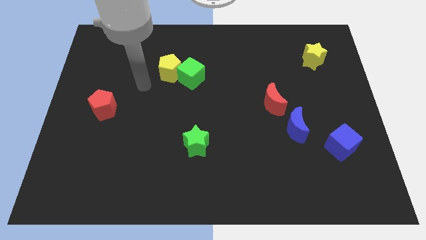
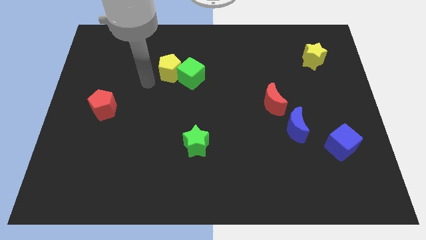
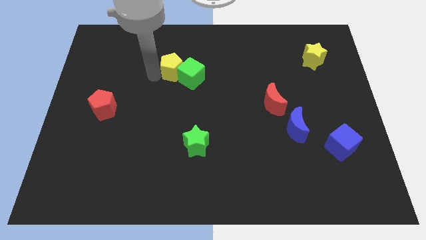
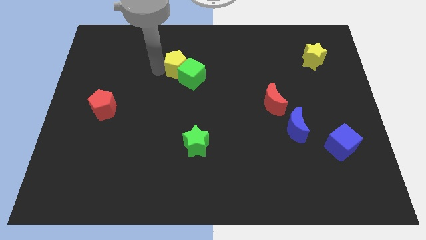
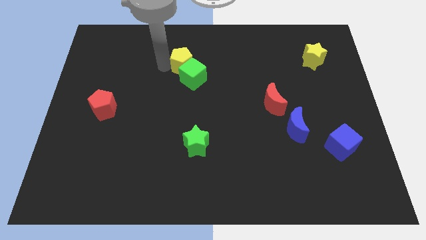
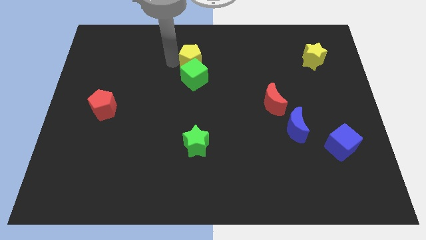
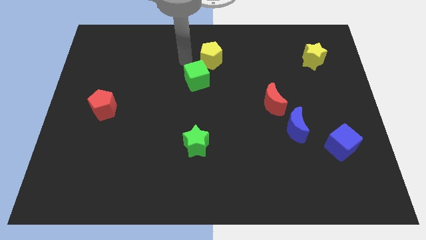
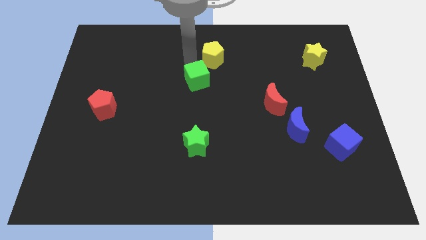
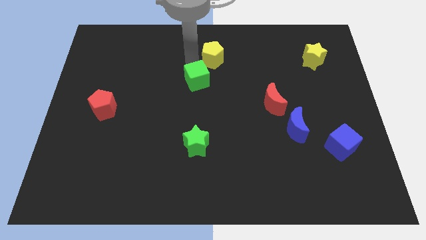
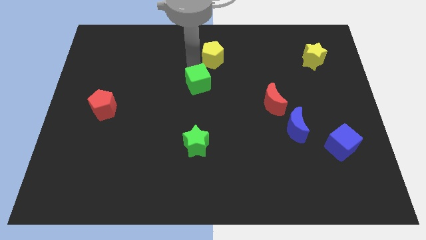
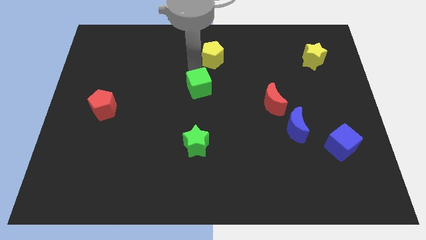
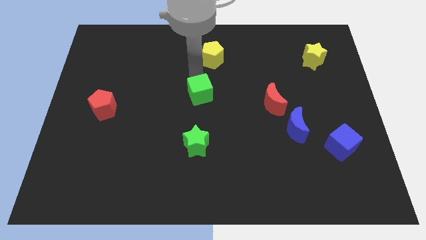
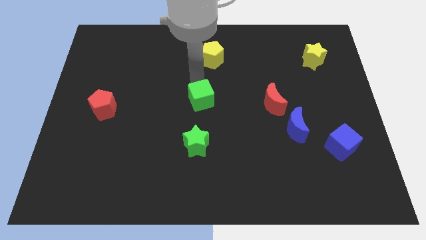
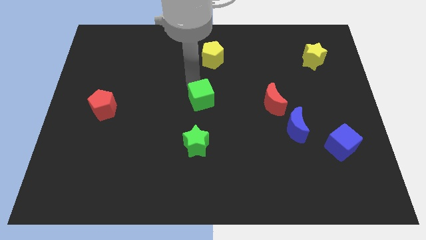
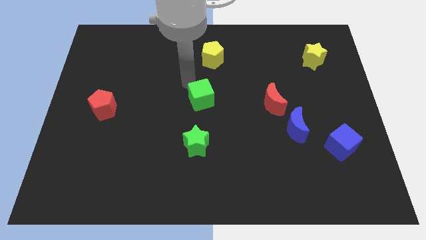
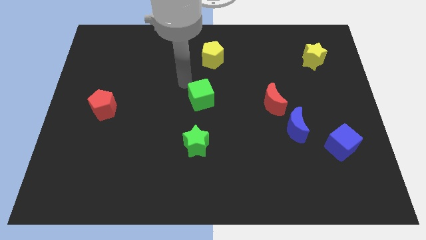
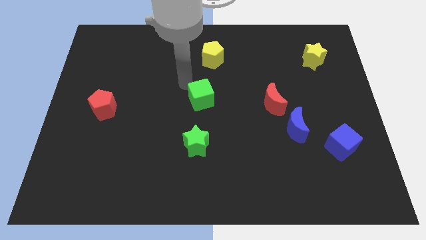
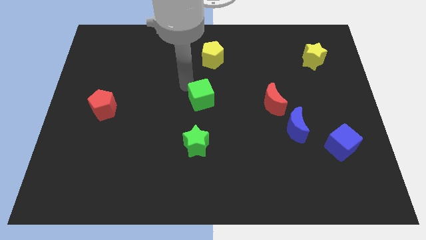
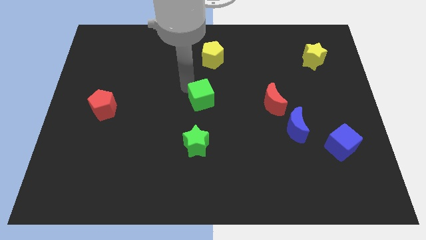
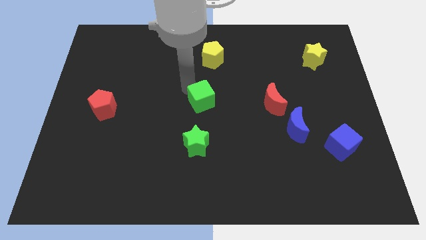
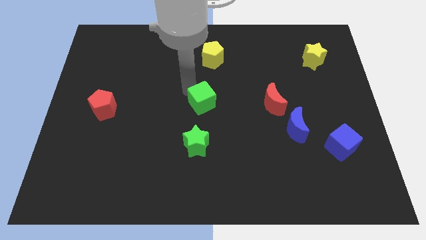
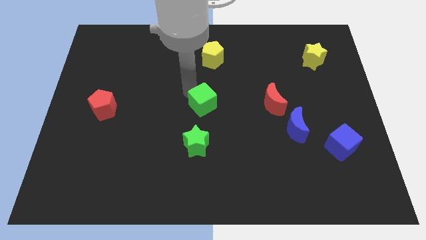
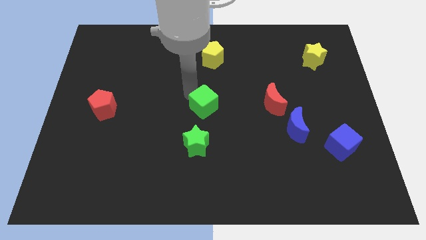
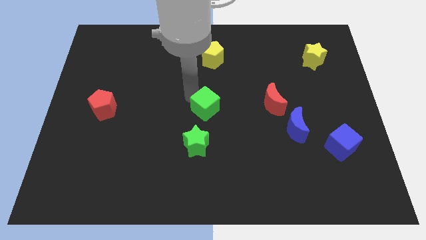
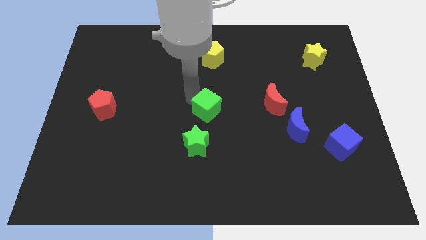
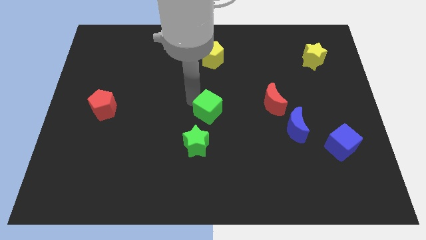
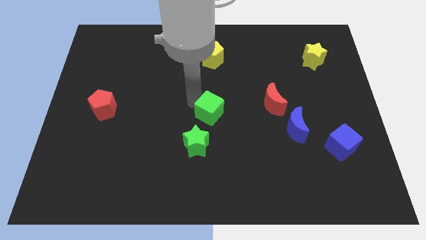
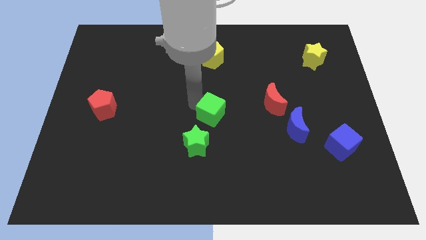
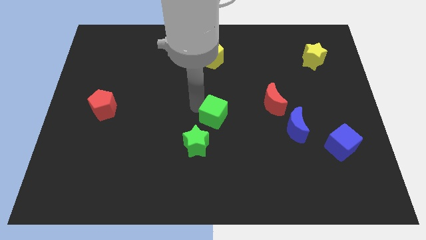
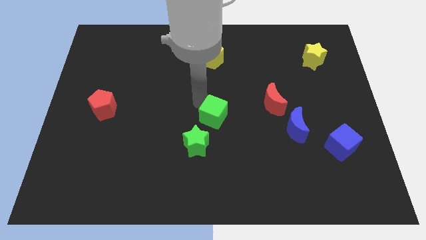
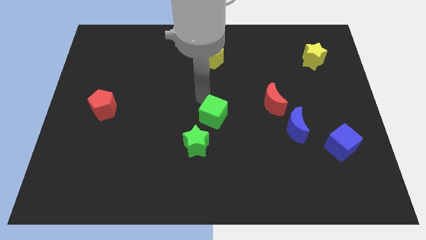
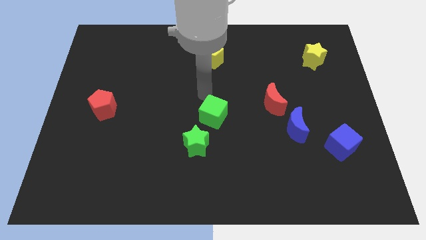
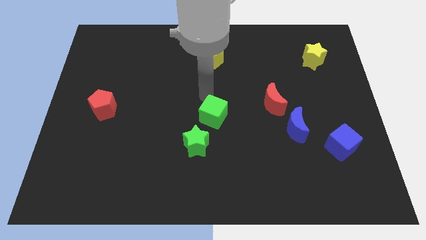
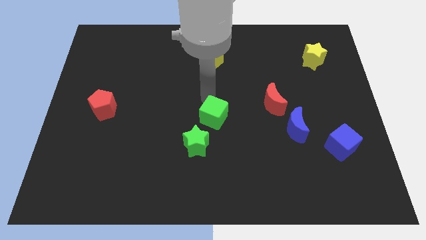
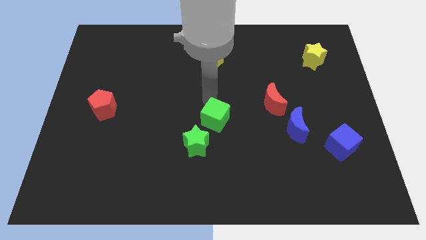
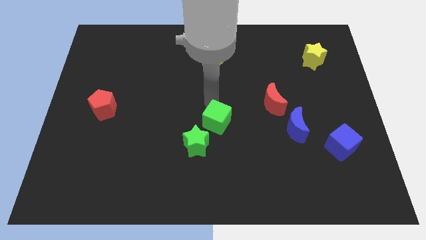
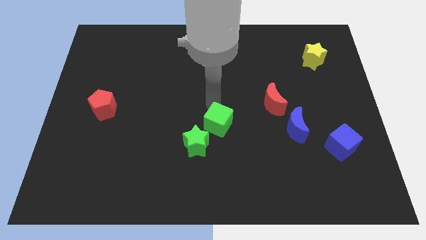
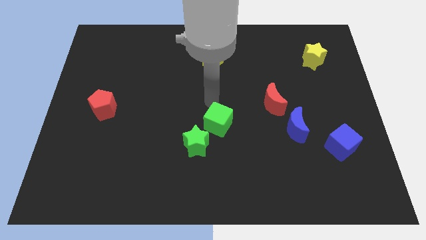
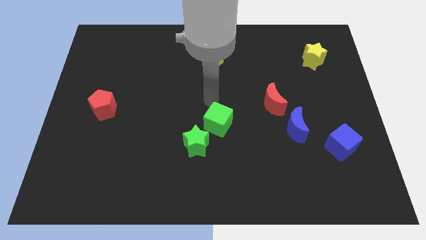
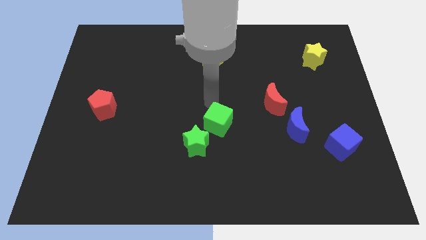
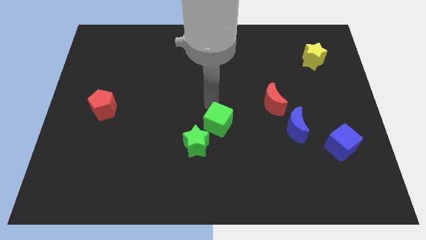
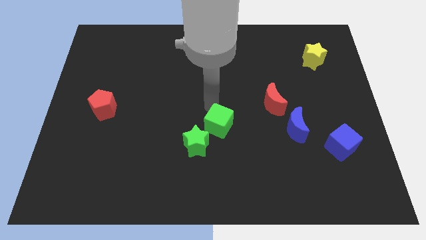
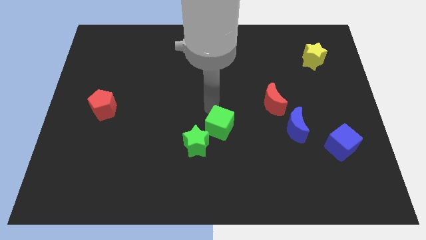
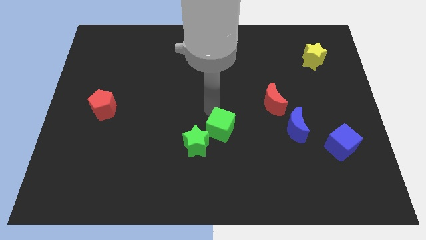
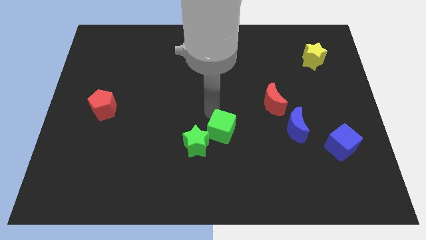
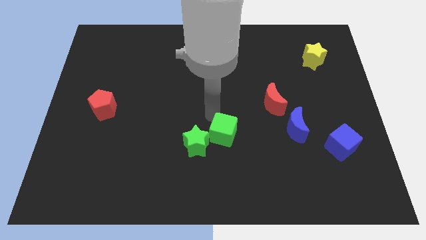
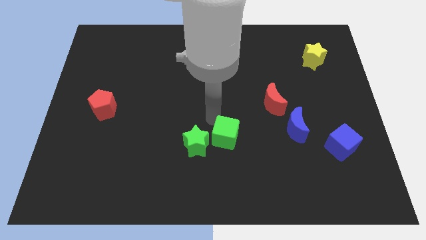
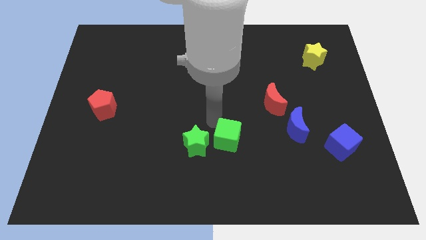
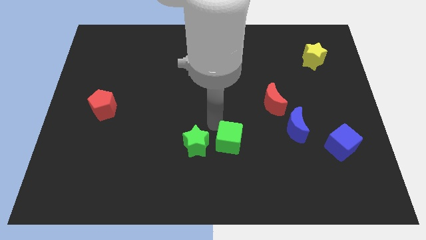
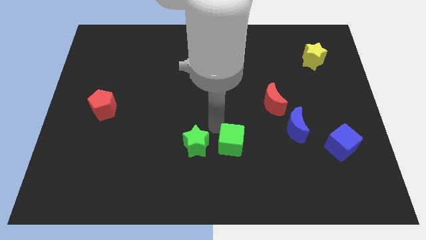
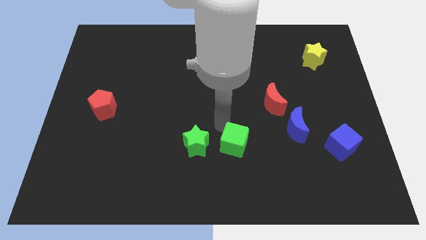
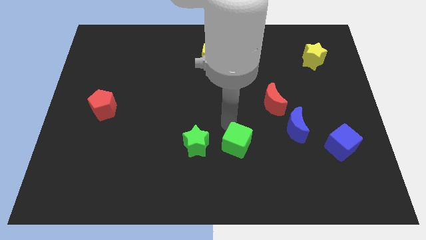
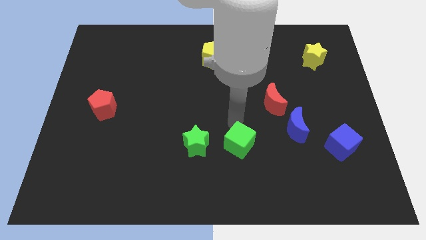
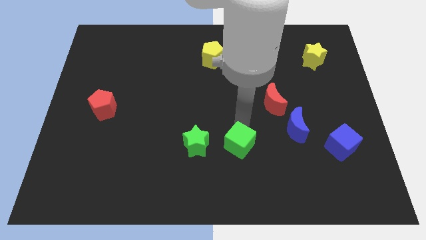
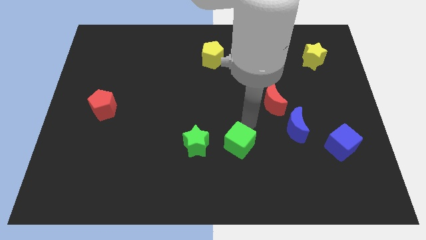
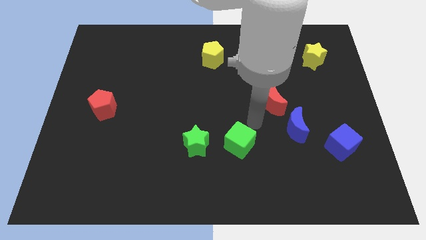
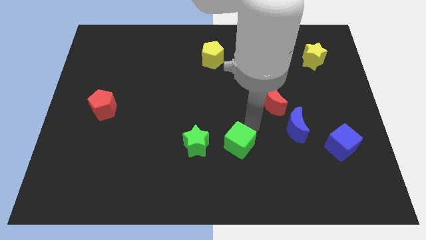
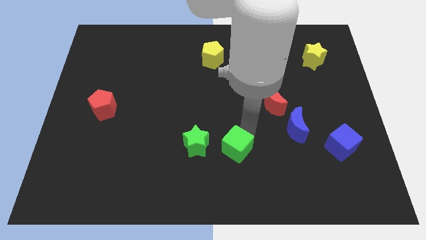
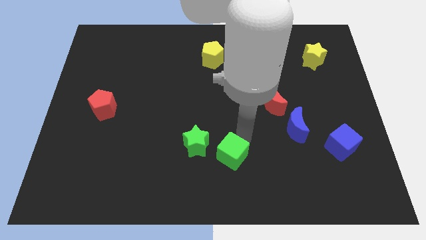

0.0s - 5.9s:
put the green cube to the bottom right of the green star
